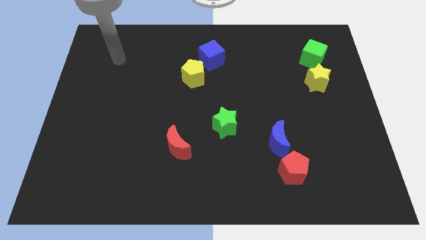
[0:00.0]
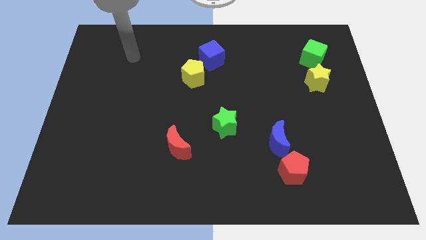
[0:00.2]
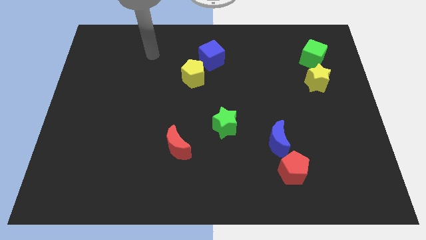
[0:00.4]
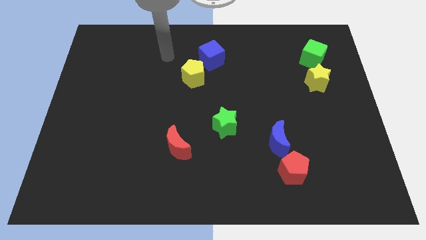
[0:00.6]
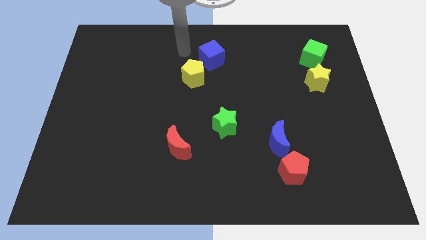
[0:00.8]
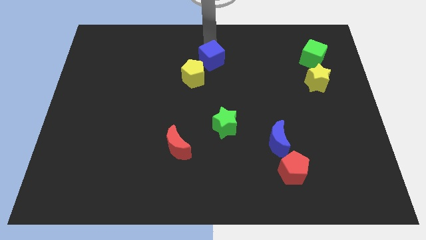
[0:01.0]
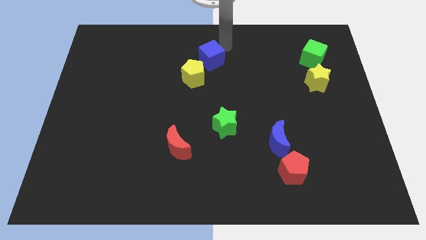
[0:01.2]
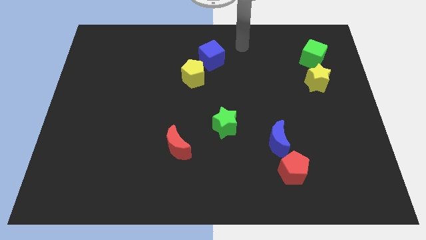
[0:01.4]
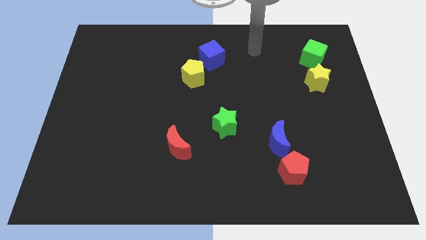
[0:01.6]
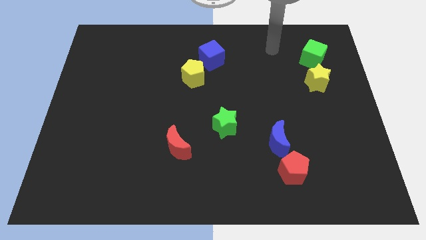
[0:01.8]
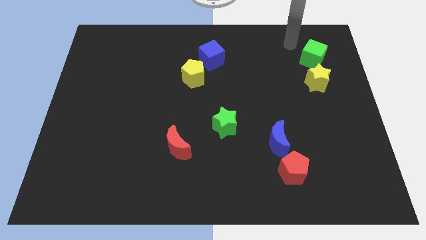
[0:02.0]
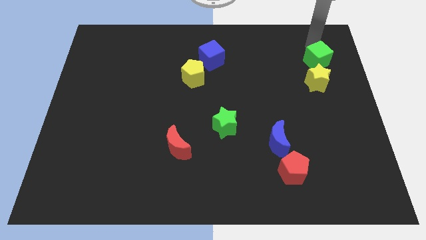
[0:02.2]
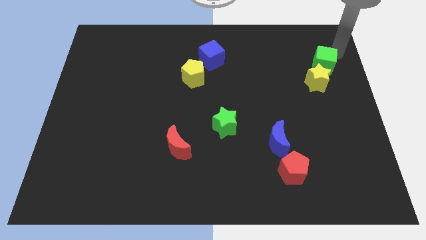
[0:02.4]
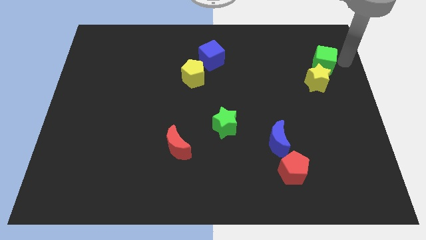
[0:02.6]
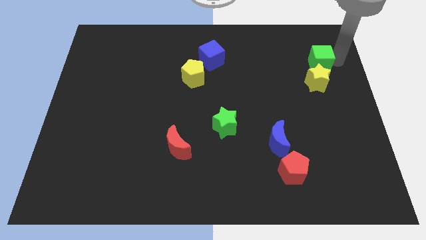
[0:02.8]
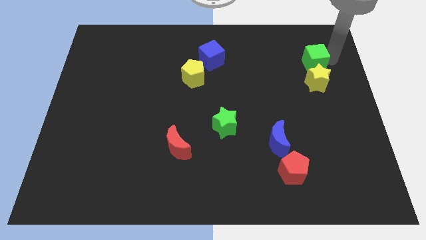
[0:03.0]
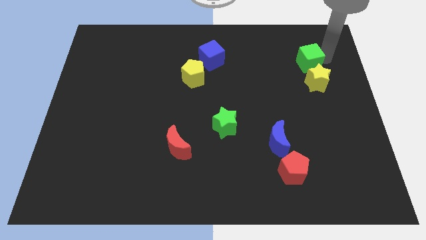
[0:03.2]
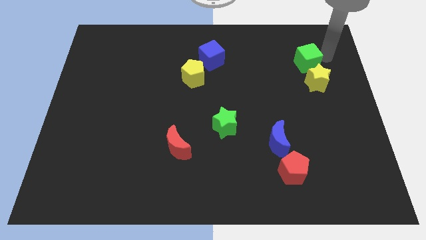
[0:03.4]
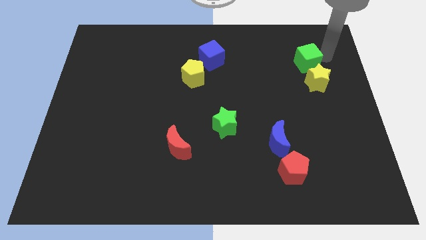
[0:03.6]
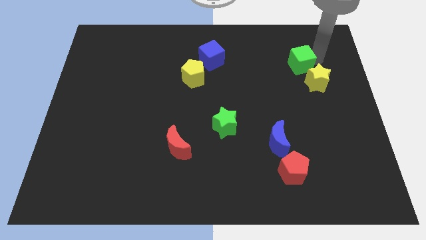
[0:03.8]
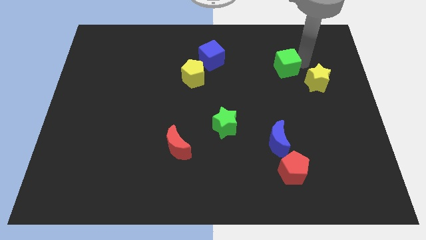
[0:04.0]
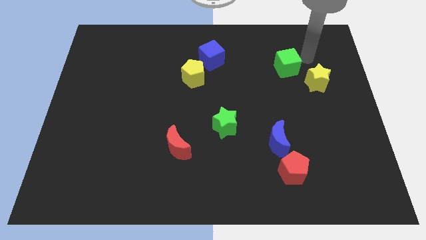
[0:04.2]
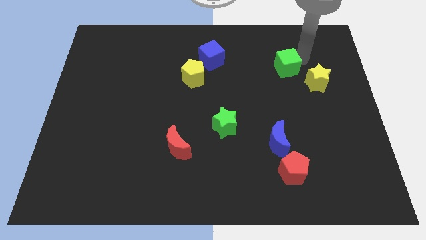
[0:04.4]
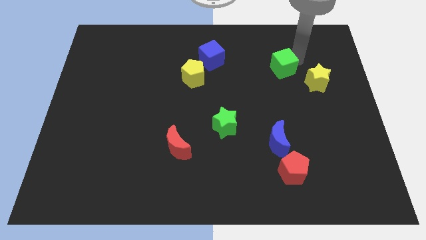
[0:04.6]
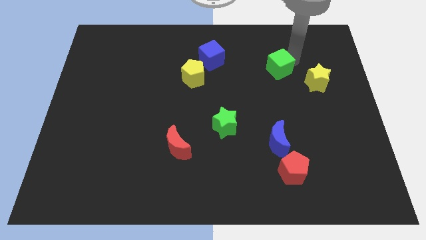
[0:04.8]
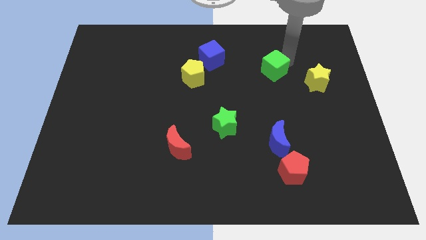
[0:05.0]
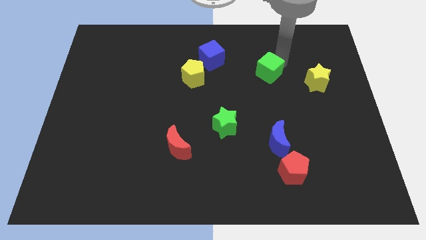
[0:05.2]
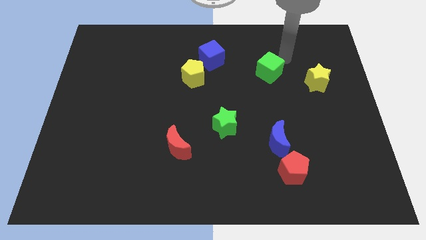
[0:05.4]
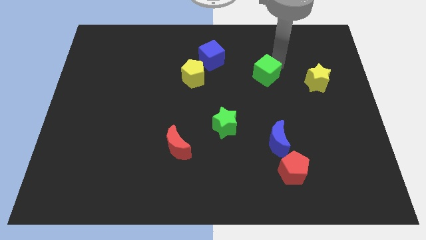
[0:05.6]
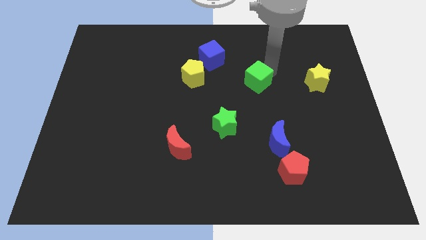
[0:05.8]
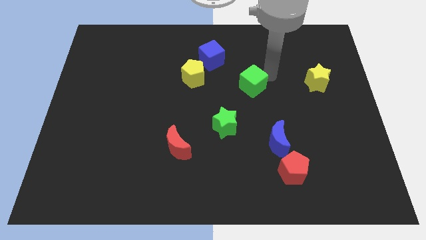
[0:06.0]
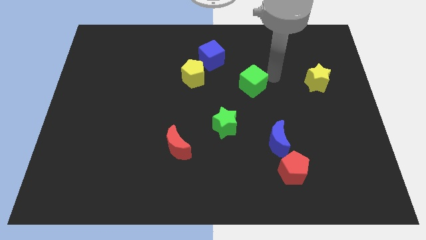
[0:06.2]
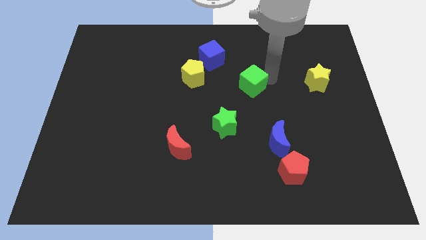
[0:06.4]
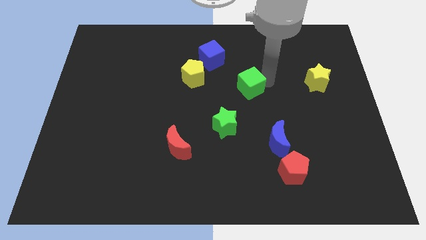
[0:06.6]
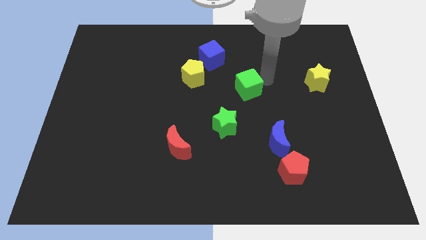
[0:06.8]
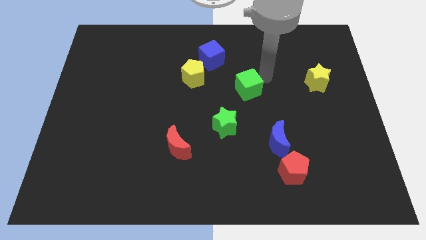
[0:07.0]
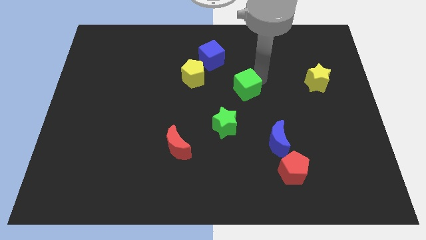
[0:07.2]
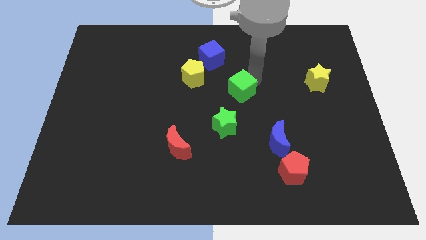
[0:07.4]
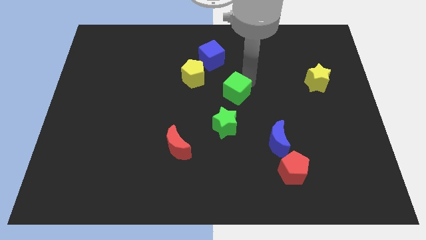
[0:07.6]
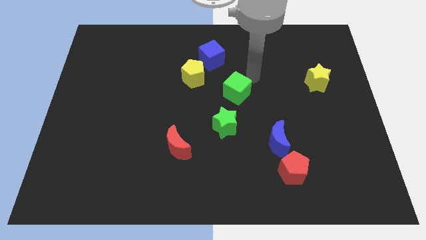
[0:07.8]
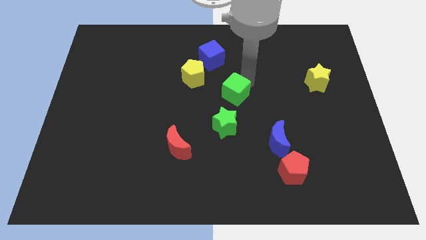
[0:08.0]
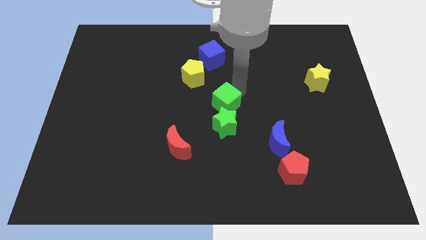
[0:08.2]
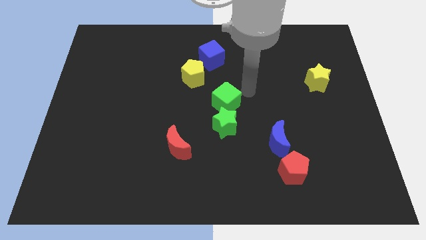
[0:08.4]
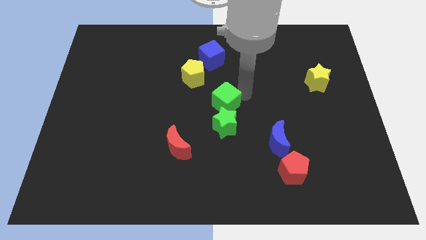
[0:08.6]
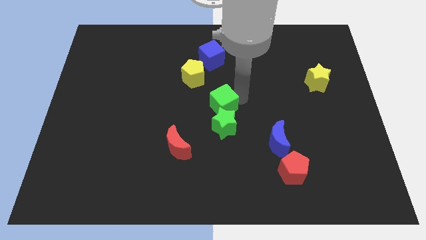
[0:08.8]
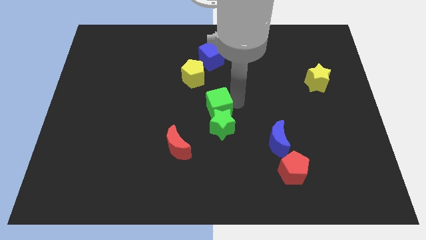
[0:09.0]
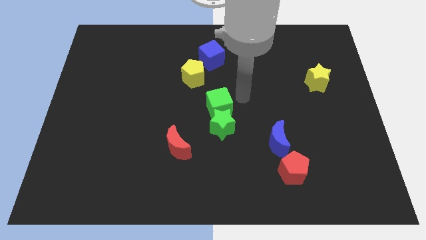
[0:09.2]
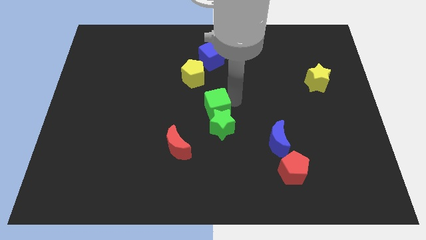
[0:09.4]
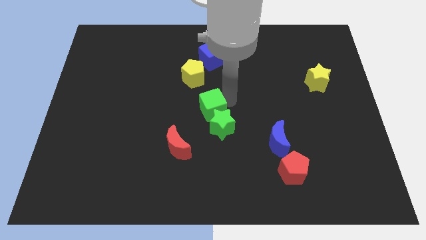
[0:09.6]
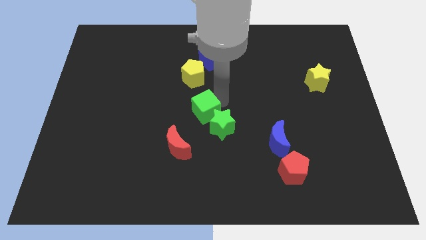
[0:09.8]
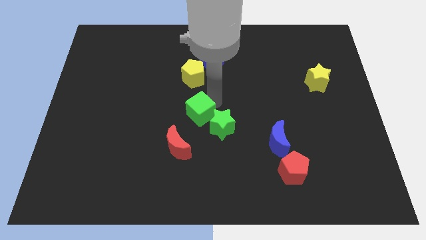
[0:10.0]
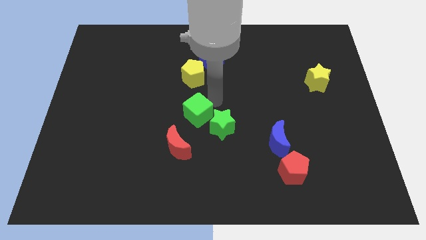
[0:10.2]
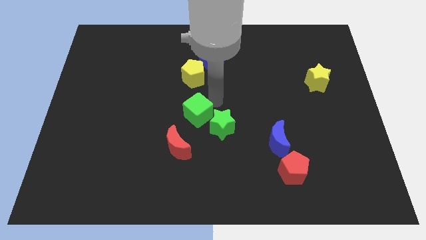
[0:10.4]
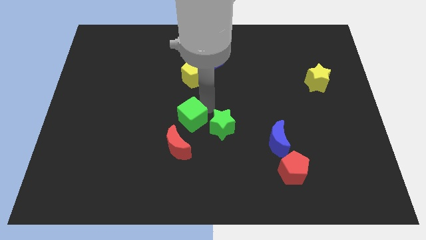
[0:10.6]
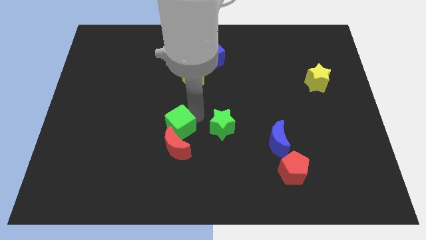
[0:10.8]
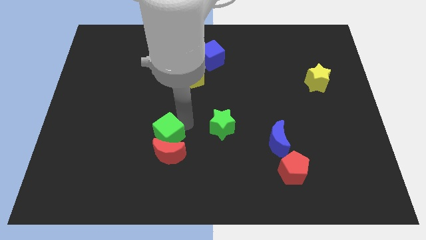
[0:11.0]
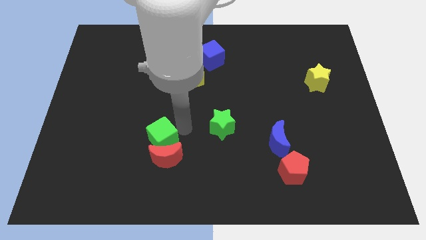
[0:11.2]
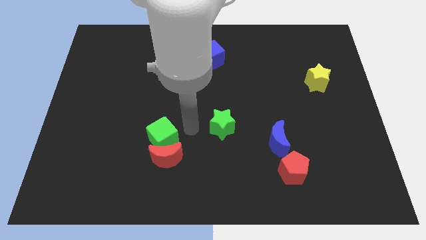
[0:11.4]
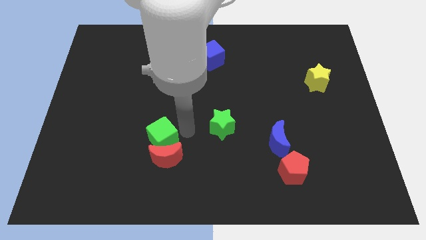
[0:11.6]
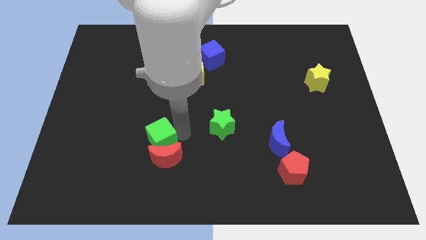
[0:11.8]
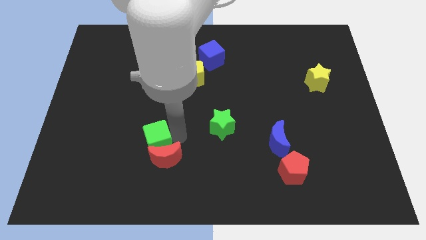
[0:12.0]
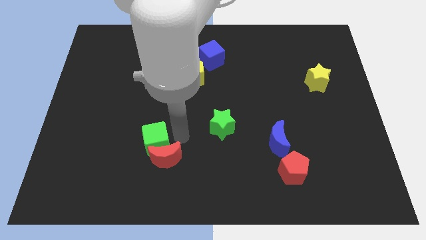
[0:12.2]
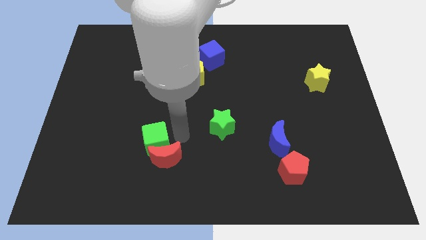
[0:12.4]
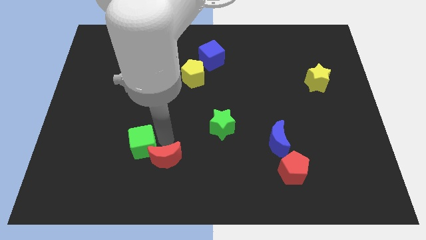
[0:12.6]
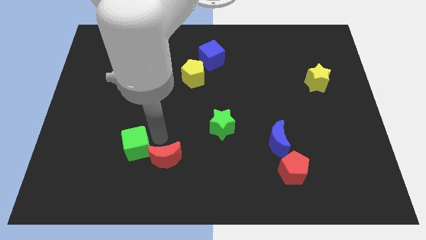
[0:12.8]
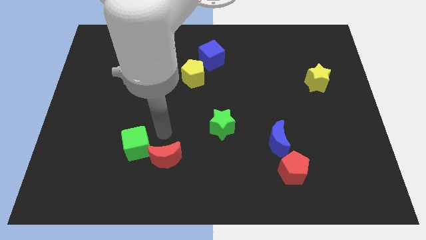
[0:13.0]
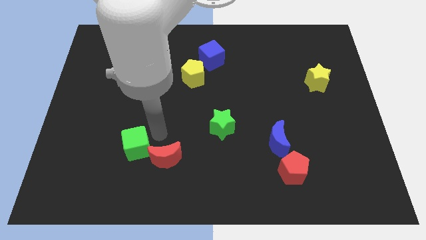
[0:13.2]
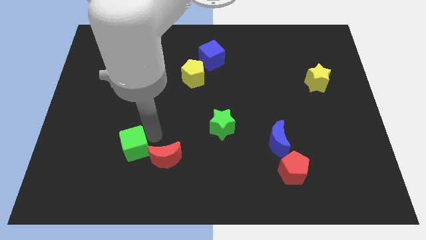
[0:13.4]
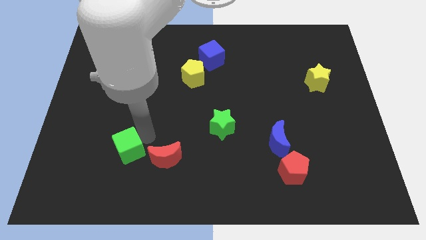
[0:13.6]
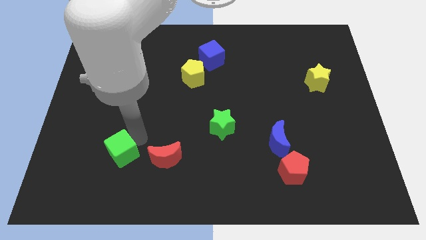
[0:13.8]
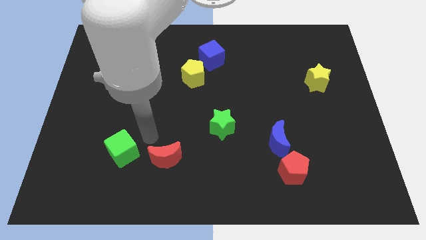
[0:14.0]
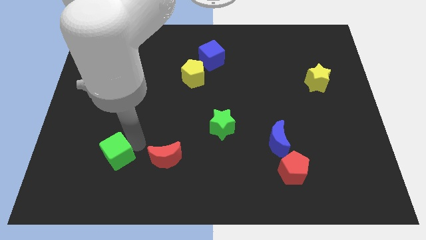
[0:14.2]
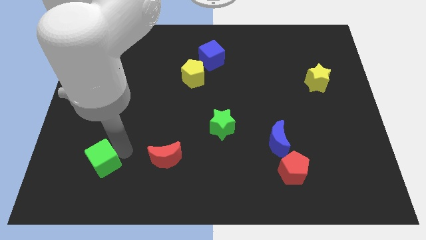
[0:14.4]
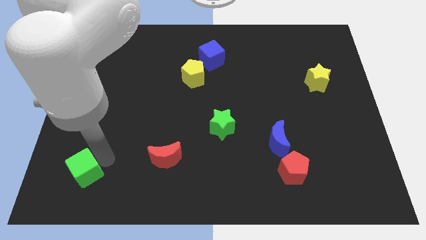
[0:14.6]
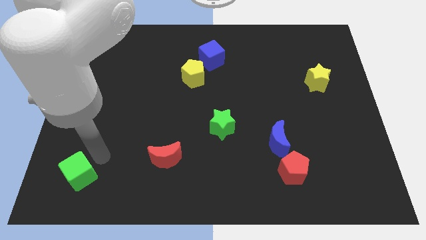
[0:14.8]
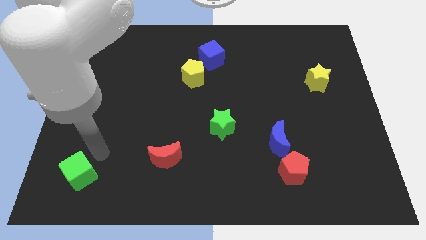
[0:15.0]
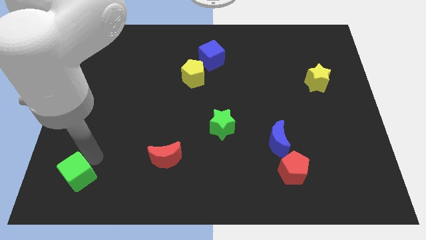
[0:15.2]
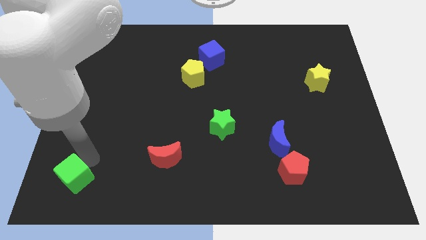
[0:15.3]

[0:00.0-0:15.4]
move the green cube to the lower left corner
